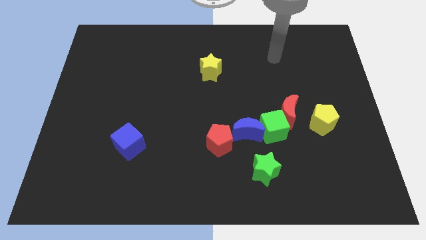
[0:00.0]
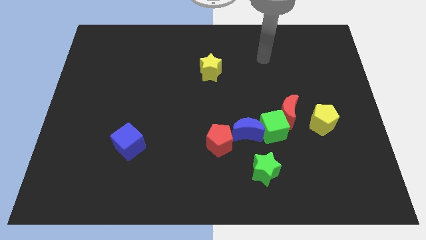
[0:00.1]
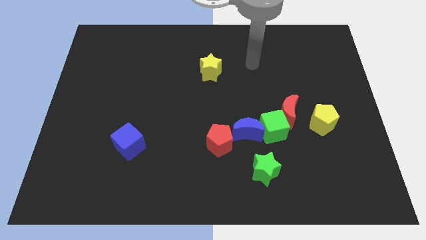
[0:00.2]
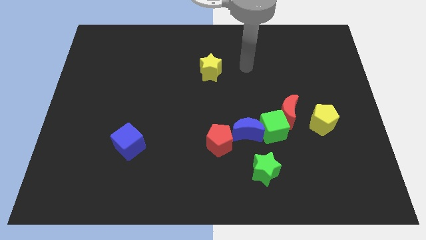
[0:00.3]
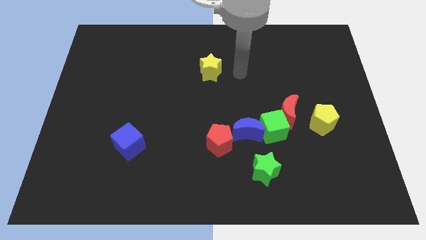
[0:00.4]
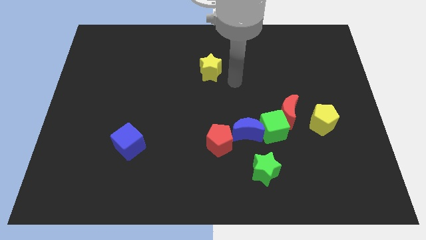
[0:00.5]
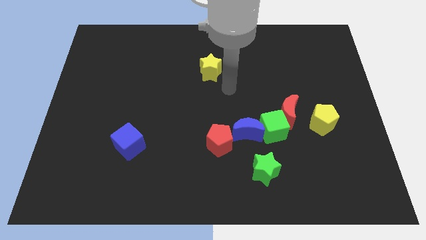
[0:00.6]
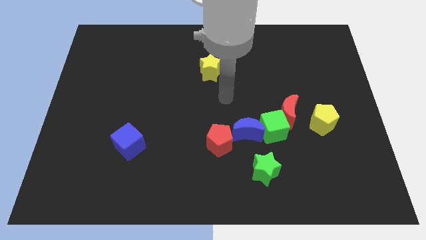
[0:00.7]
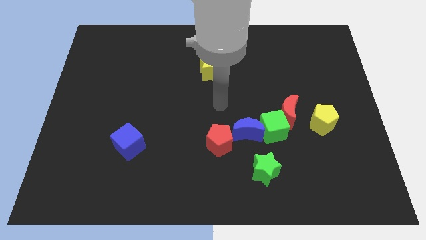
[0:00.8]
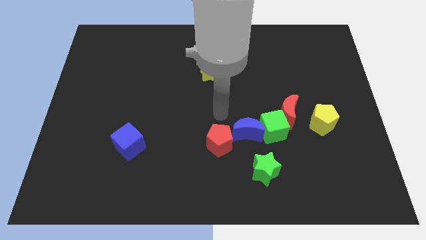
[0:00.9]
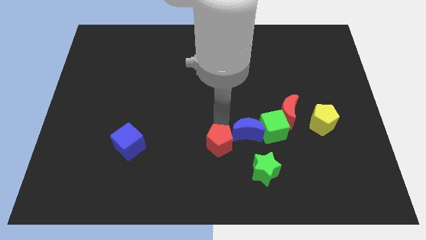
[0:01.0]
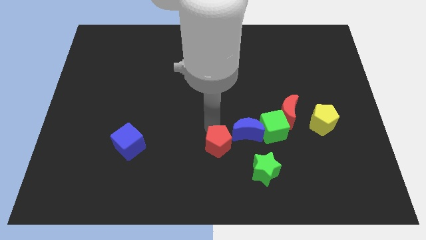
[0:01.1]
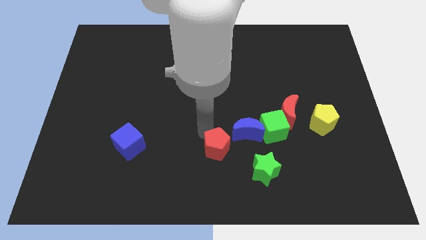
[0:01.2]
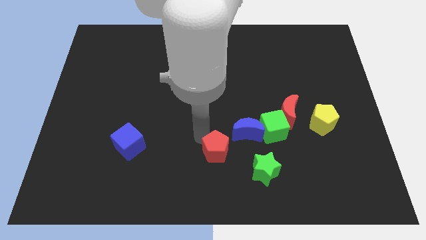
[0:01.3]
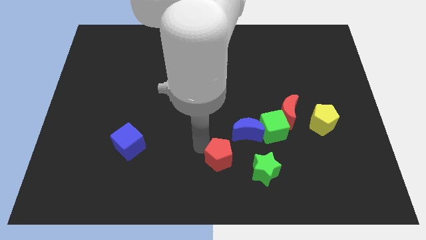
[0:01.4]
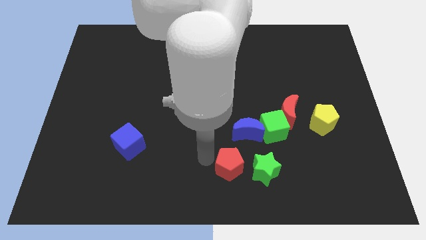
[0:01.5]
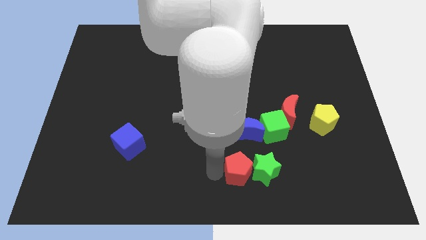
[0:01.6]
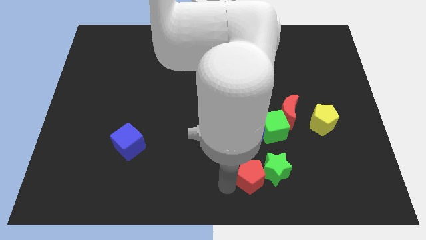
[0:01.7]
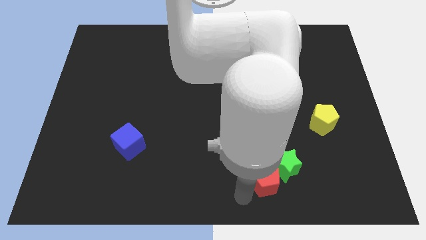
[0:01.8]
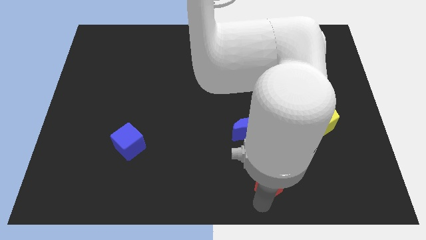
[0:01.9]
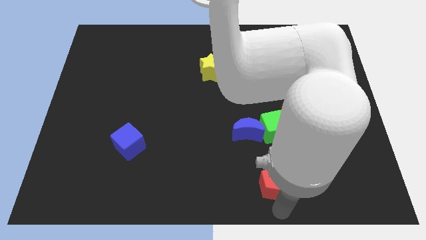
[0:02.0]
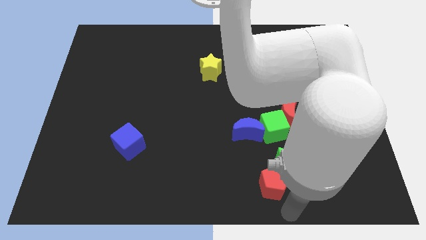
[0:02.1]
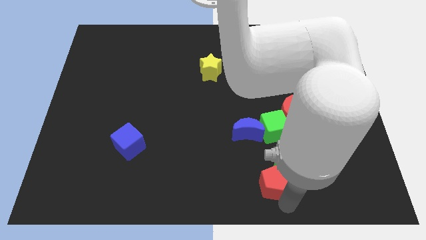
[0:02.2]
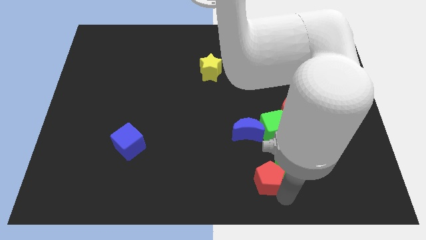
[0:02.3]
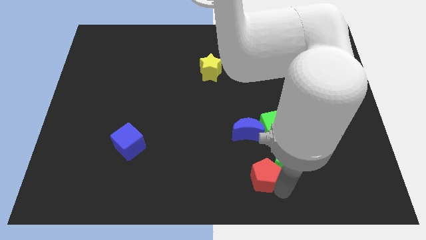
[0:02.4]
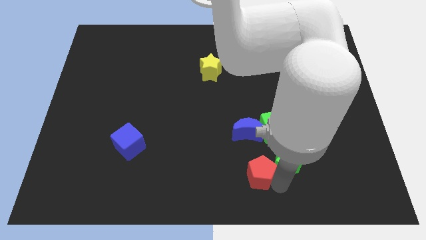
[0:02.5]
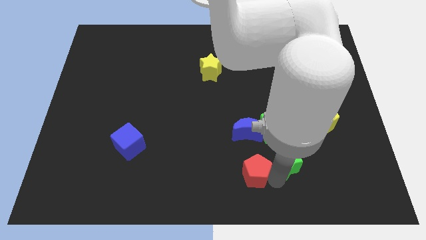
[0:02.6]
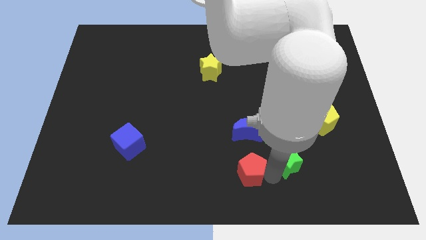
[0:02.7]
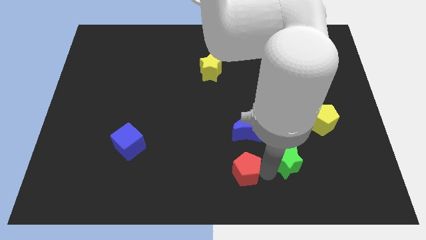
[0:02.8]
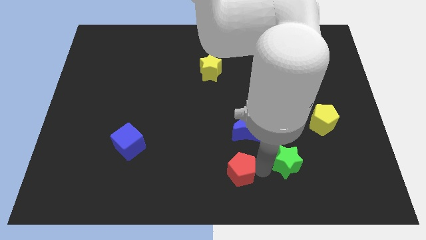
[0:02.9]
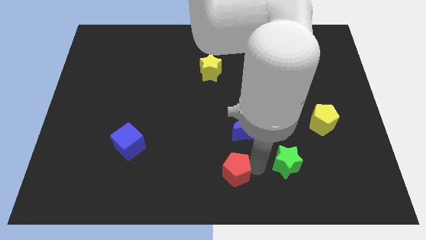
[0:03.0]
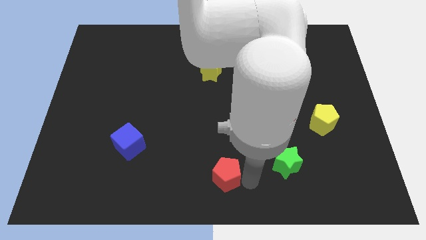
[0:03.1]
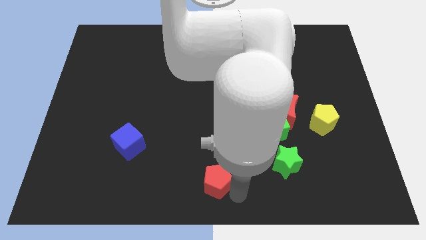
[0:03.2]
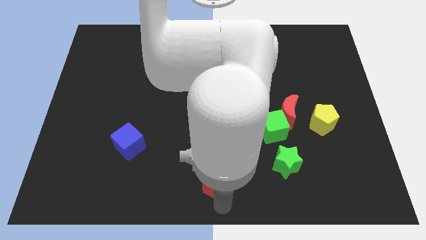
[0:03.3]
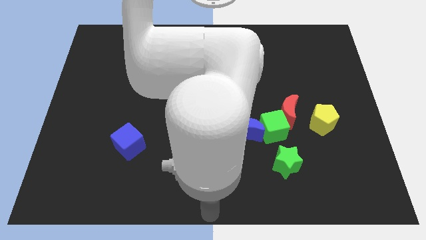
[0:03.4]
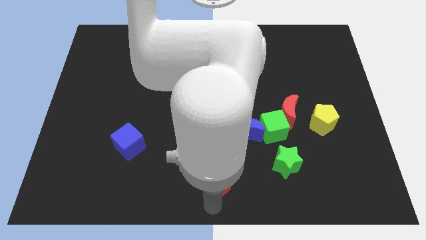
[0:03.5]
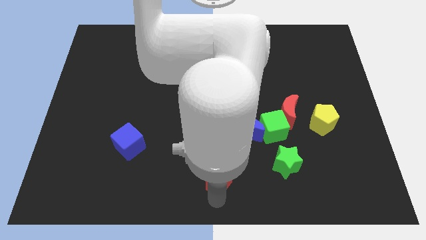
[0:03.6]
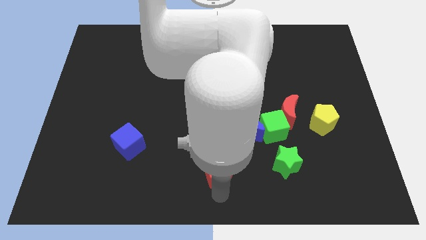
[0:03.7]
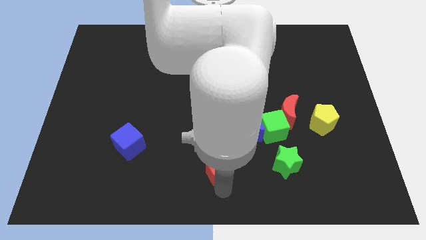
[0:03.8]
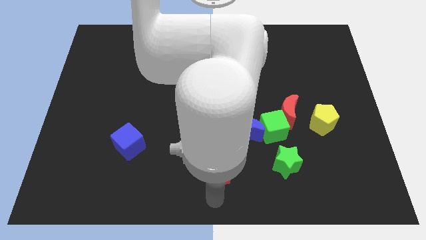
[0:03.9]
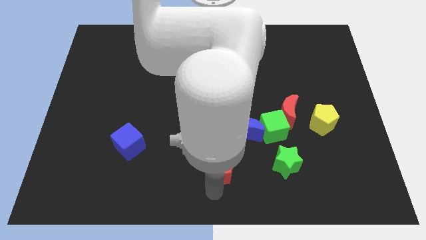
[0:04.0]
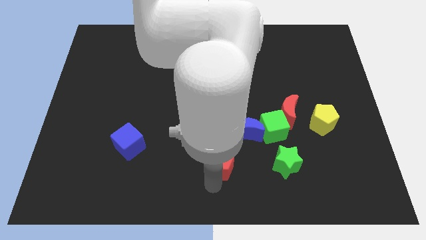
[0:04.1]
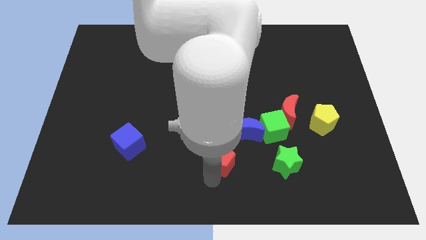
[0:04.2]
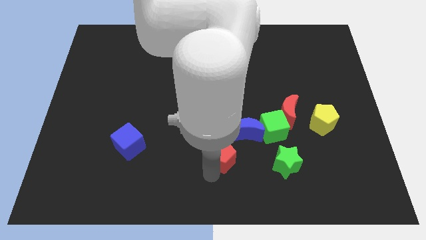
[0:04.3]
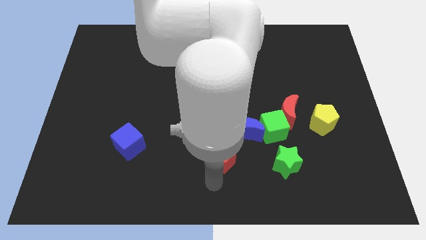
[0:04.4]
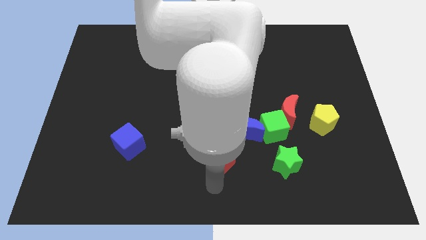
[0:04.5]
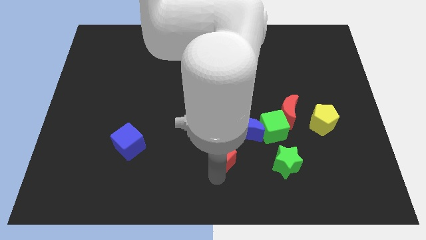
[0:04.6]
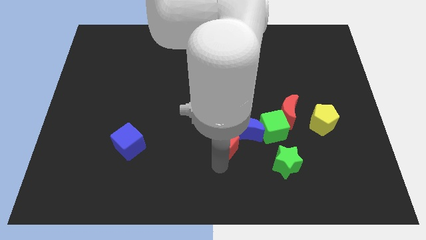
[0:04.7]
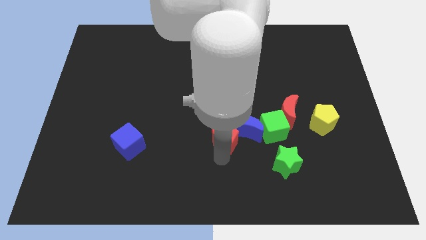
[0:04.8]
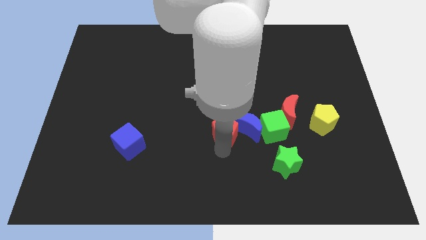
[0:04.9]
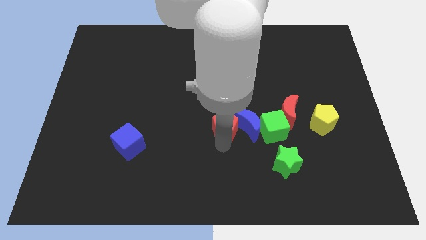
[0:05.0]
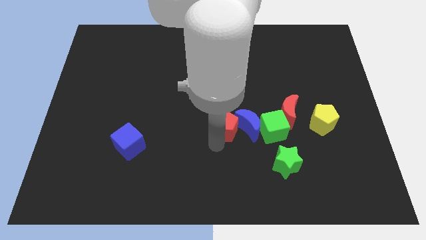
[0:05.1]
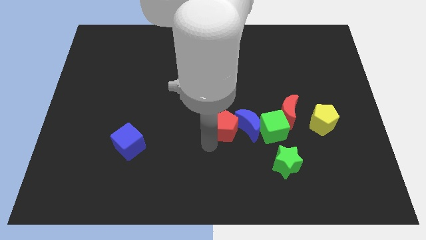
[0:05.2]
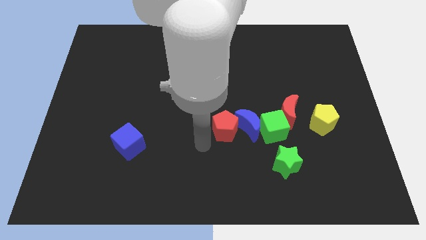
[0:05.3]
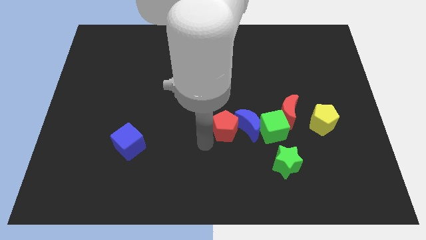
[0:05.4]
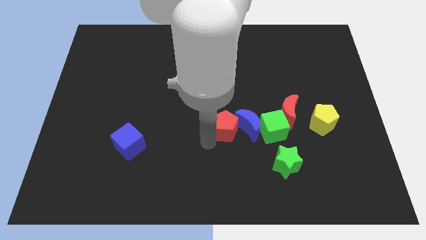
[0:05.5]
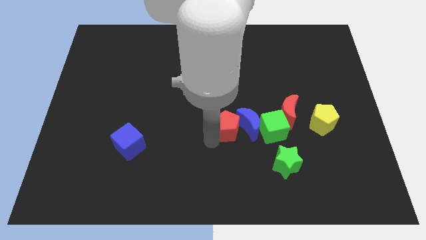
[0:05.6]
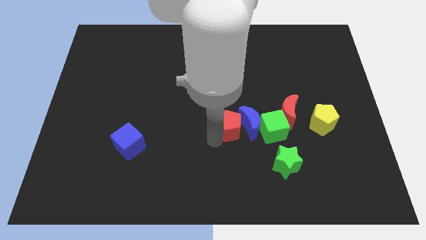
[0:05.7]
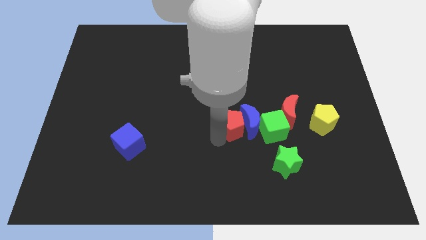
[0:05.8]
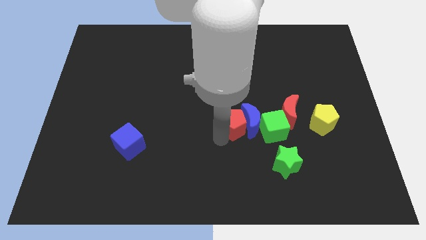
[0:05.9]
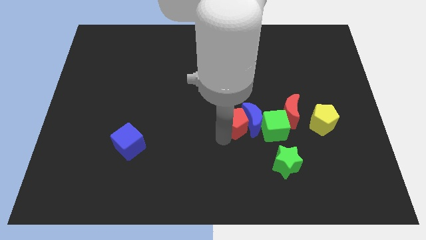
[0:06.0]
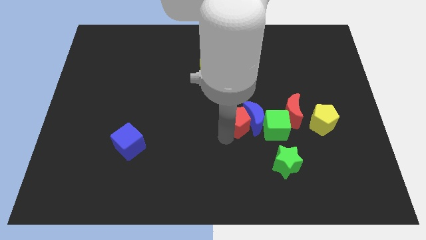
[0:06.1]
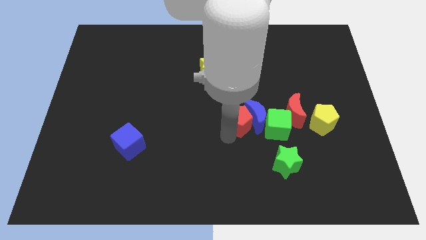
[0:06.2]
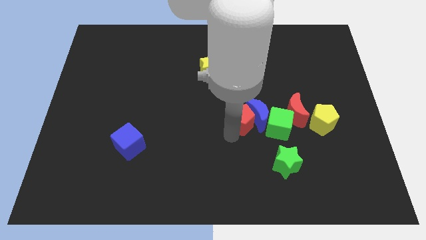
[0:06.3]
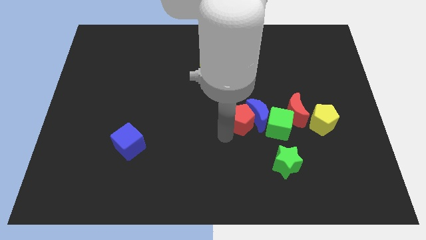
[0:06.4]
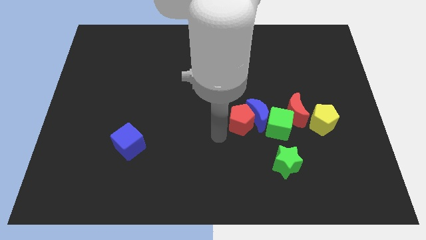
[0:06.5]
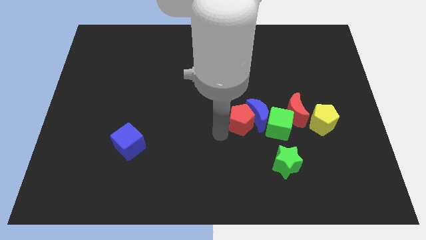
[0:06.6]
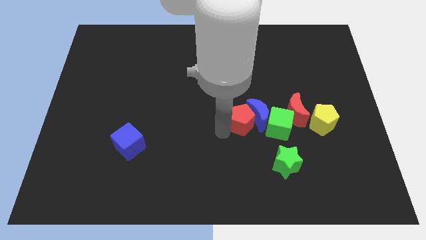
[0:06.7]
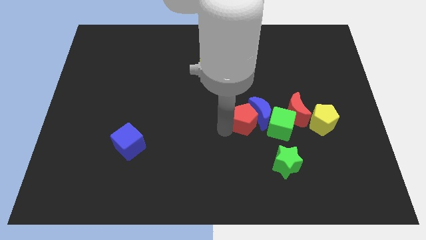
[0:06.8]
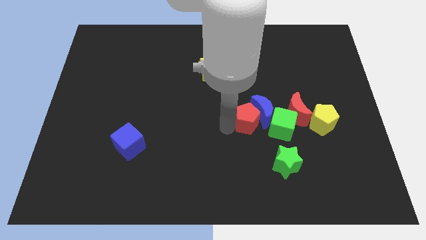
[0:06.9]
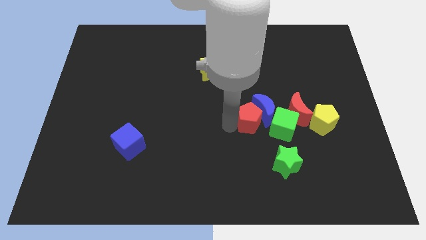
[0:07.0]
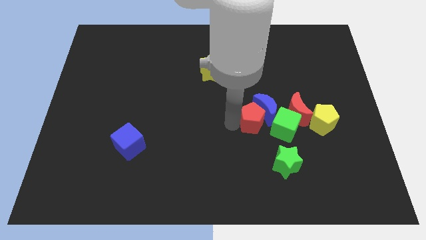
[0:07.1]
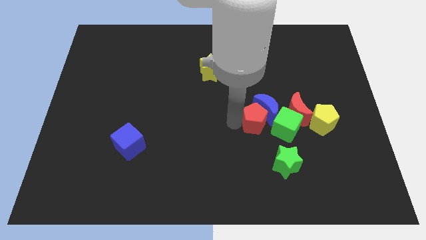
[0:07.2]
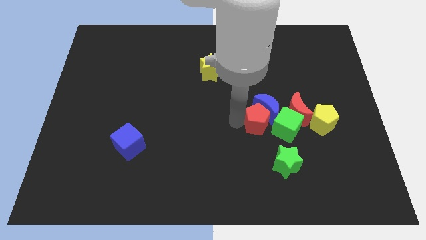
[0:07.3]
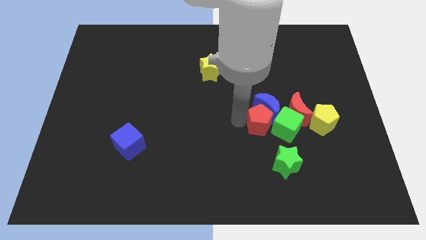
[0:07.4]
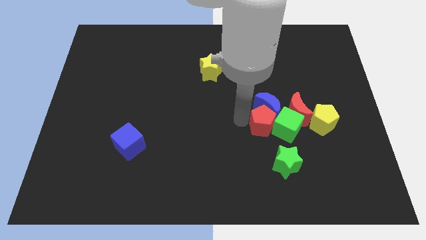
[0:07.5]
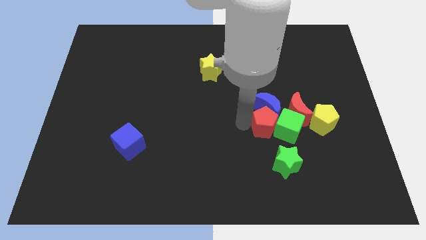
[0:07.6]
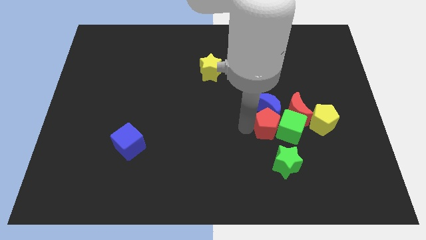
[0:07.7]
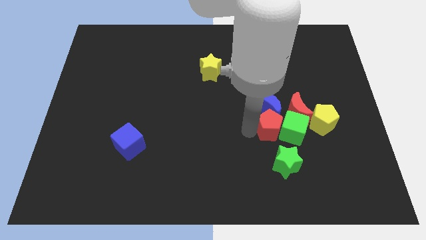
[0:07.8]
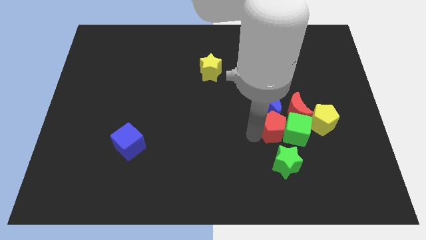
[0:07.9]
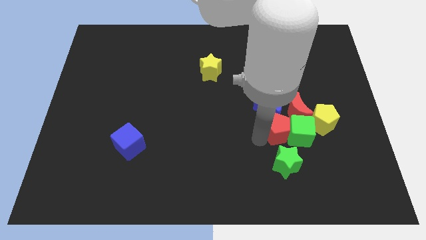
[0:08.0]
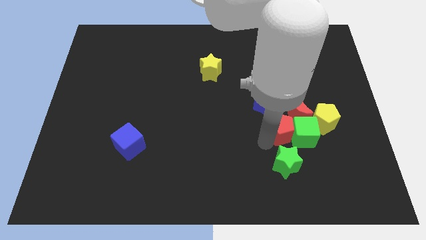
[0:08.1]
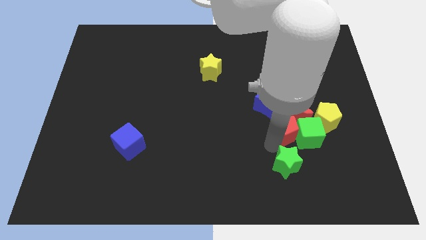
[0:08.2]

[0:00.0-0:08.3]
move the red pentagon towards the red moon
